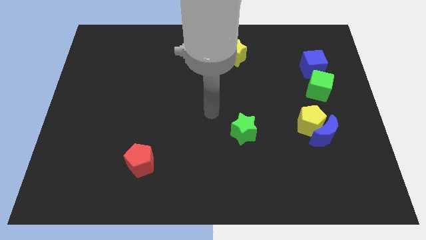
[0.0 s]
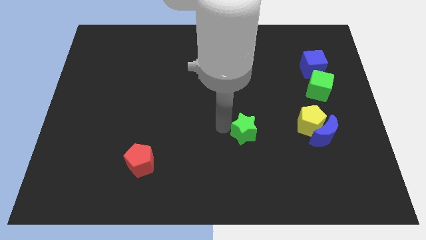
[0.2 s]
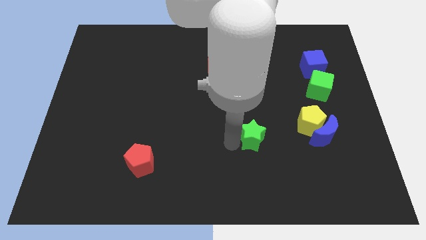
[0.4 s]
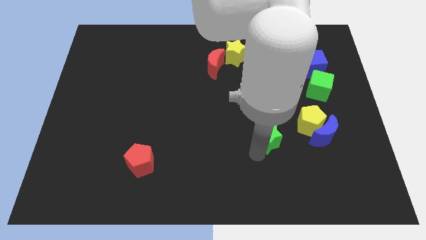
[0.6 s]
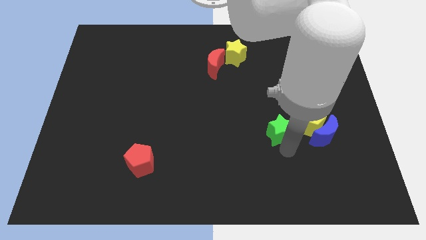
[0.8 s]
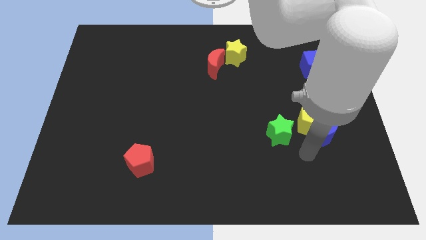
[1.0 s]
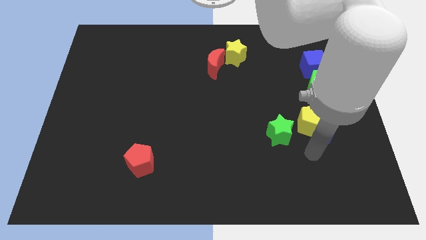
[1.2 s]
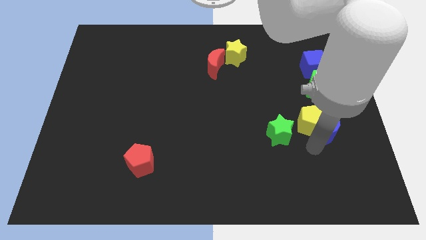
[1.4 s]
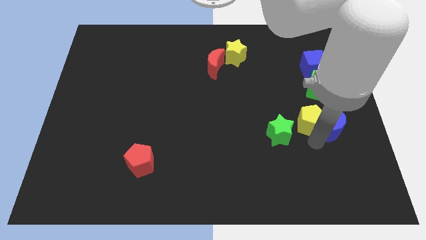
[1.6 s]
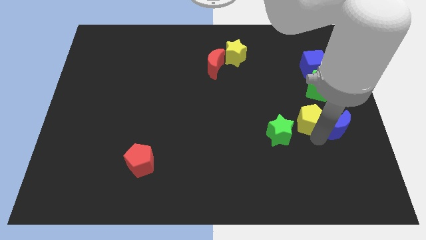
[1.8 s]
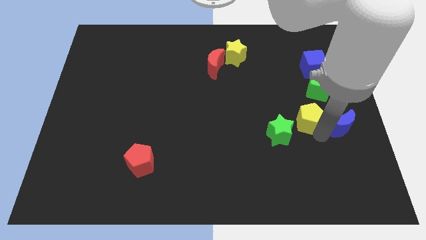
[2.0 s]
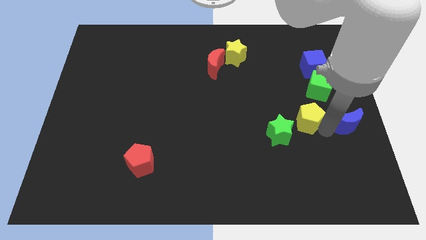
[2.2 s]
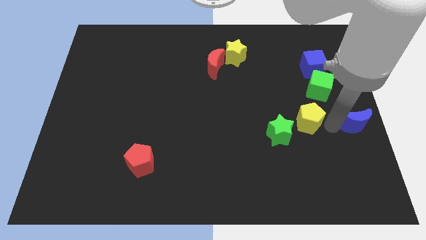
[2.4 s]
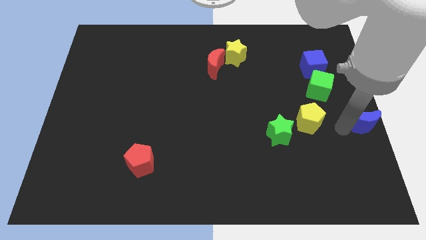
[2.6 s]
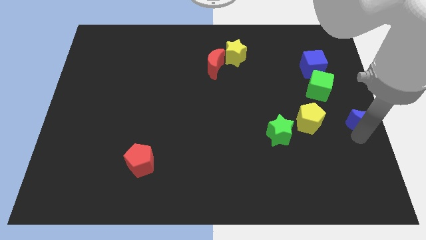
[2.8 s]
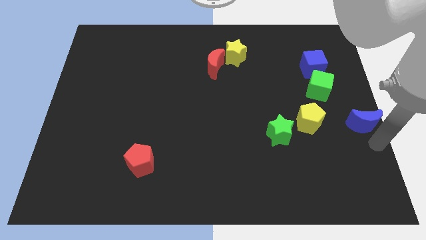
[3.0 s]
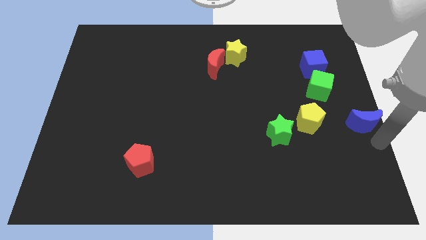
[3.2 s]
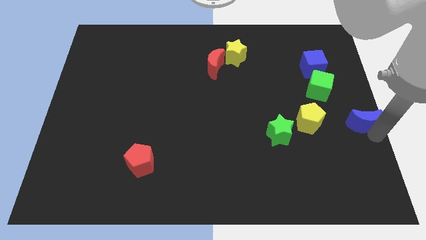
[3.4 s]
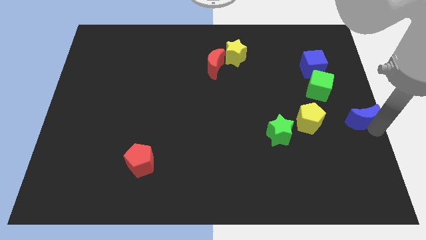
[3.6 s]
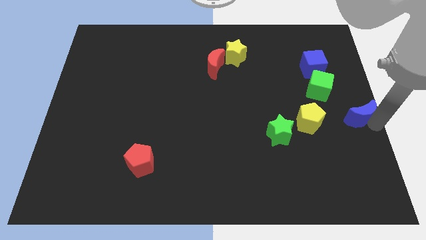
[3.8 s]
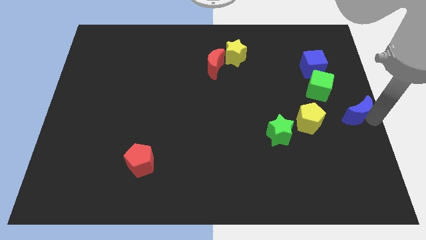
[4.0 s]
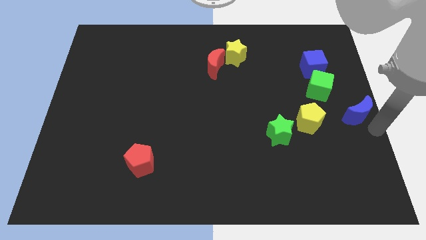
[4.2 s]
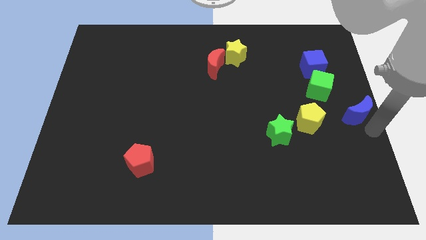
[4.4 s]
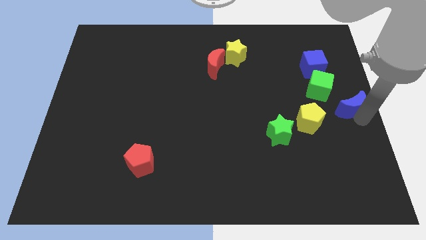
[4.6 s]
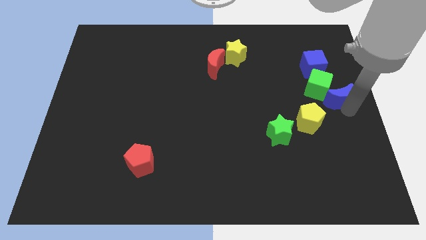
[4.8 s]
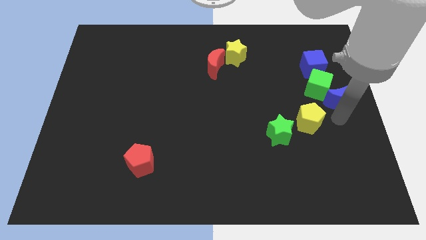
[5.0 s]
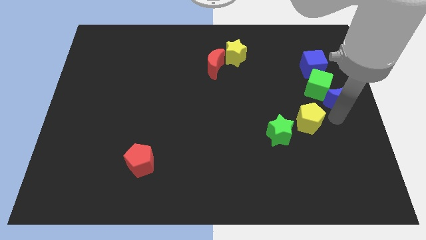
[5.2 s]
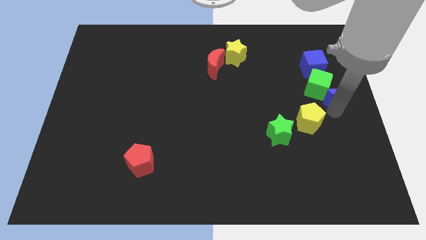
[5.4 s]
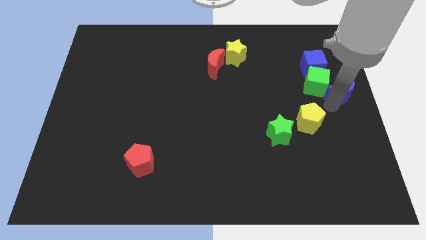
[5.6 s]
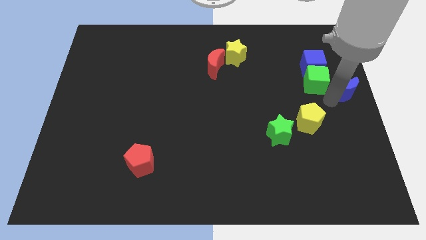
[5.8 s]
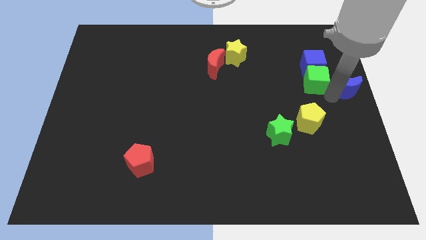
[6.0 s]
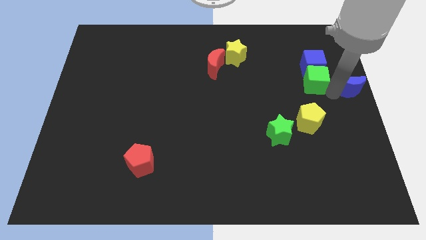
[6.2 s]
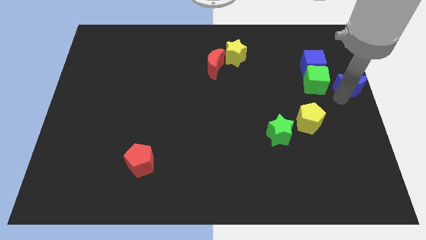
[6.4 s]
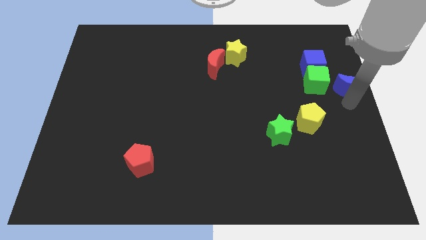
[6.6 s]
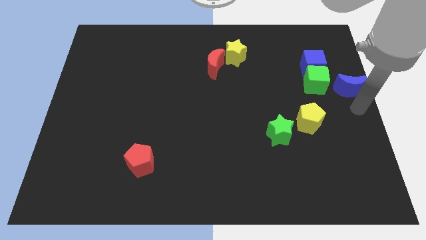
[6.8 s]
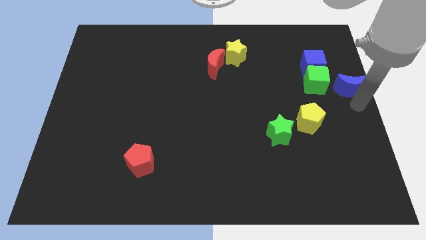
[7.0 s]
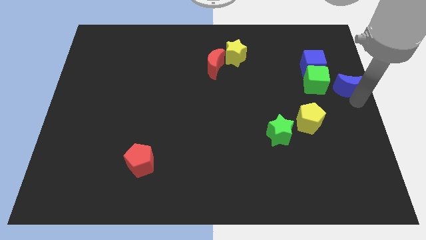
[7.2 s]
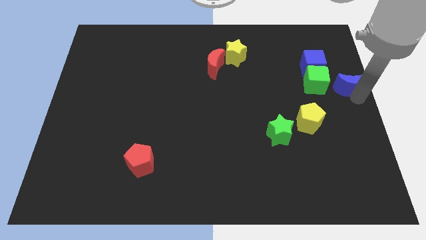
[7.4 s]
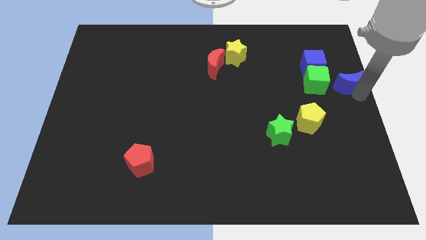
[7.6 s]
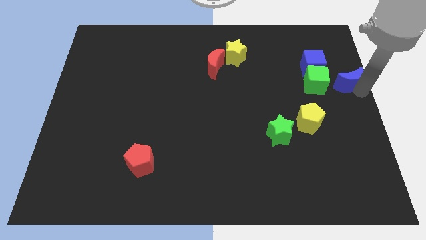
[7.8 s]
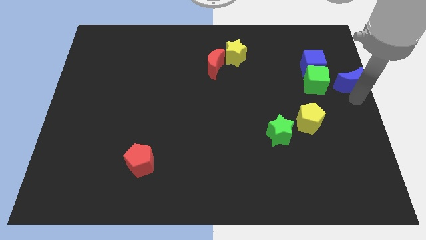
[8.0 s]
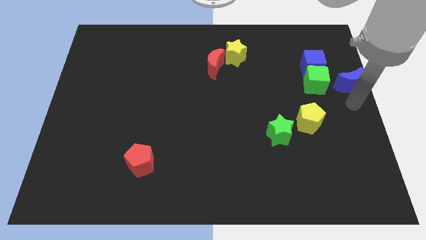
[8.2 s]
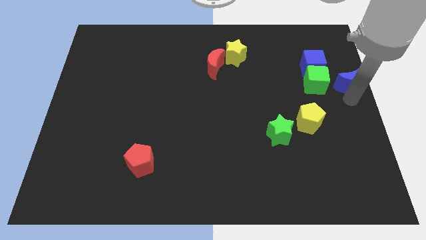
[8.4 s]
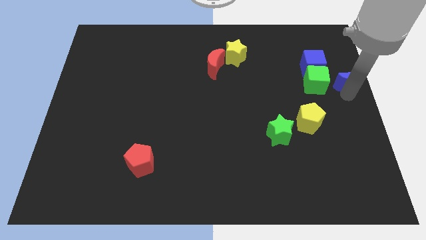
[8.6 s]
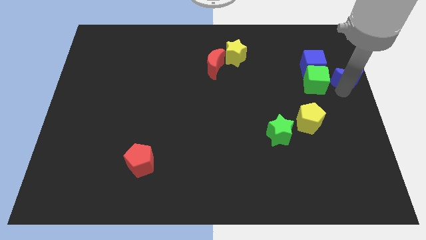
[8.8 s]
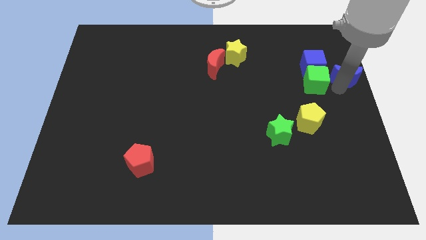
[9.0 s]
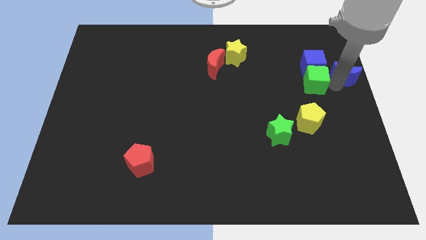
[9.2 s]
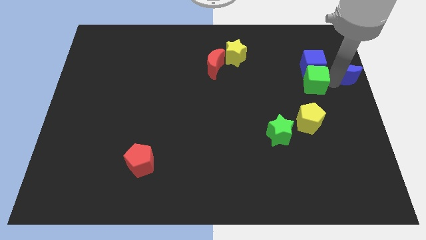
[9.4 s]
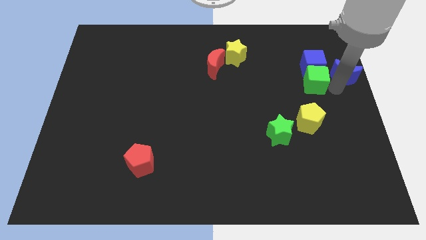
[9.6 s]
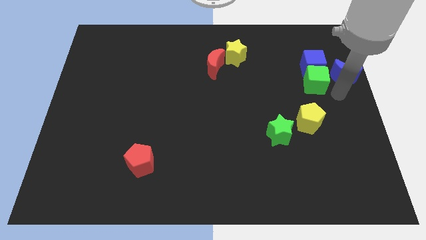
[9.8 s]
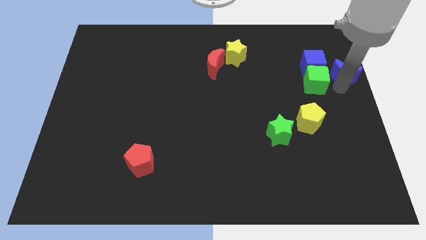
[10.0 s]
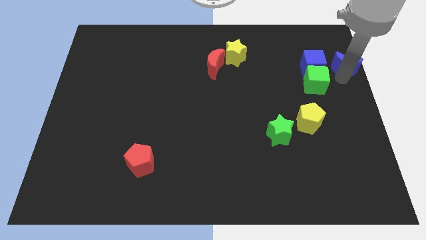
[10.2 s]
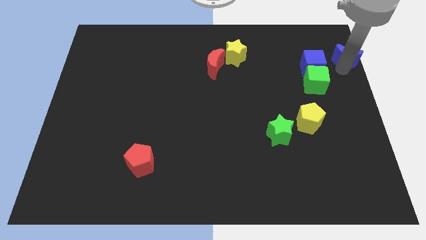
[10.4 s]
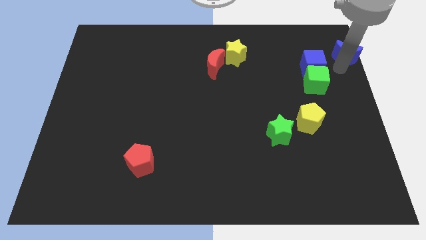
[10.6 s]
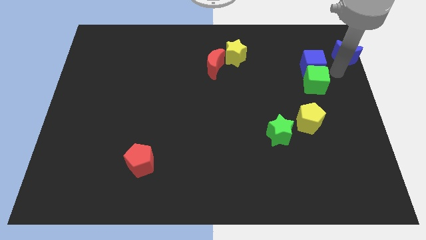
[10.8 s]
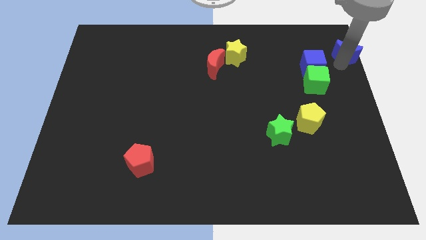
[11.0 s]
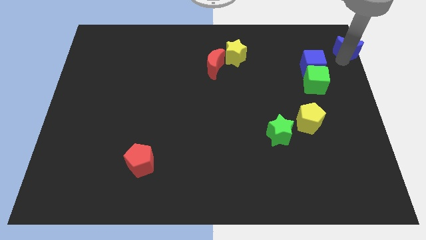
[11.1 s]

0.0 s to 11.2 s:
move the blue moon to the top right of the board

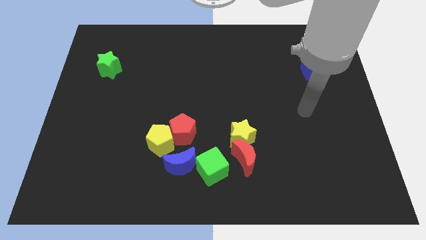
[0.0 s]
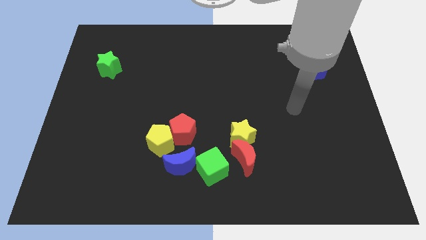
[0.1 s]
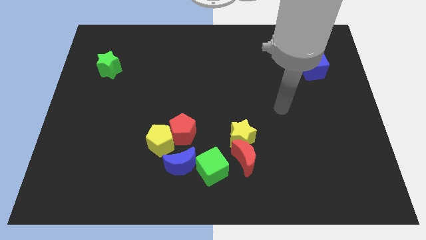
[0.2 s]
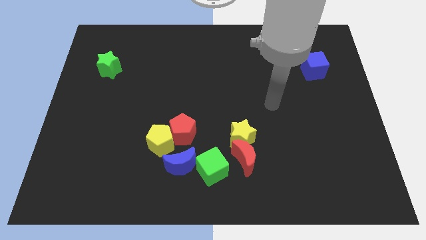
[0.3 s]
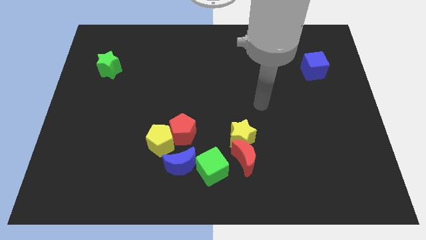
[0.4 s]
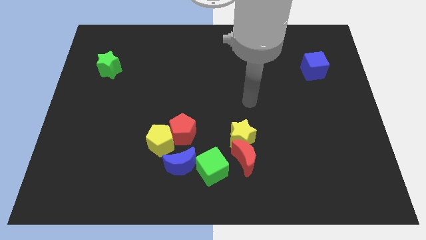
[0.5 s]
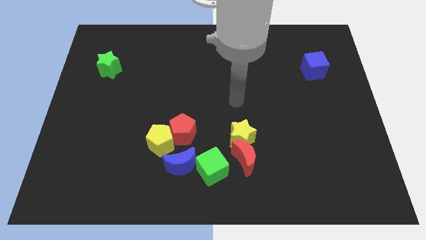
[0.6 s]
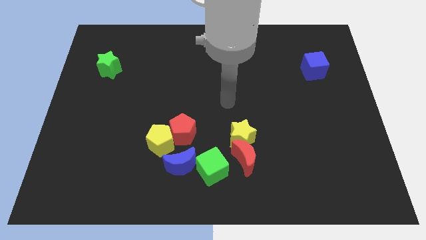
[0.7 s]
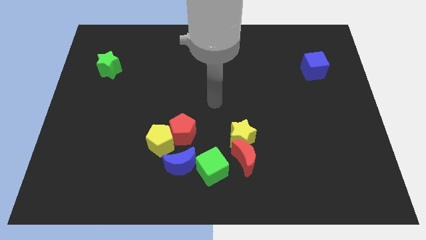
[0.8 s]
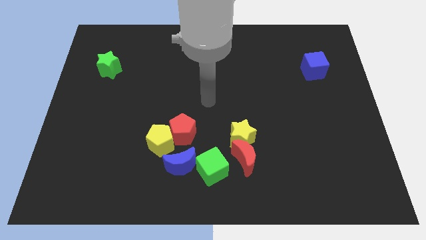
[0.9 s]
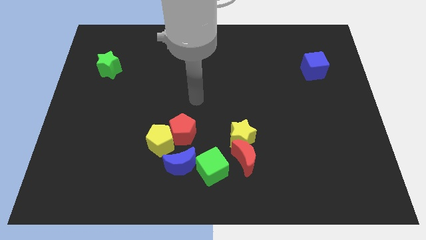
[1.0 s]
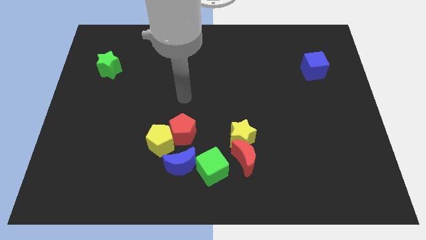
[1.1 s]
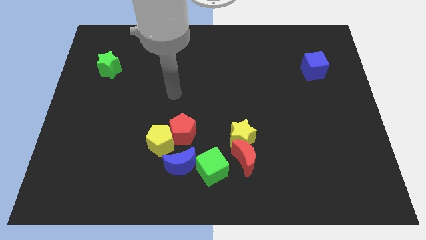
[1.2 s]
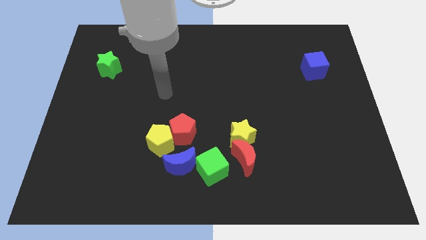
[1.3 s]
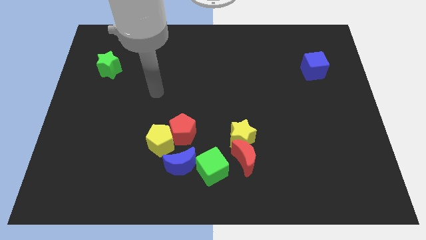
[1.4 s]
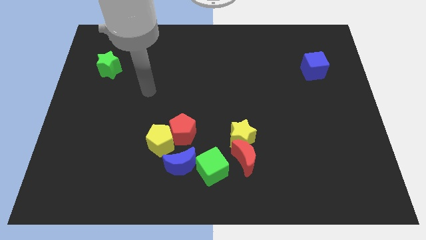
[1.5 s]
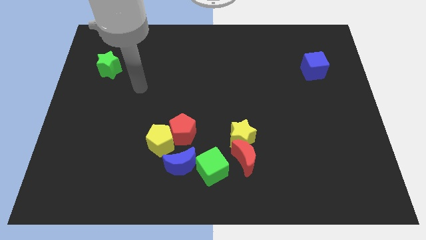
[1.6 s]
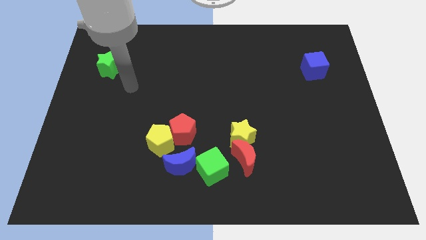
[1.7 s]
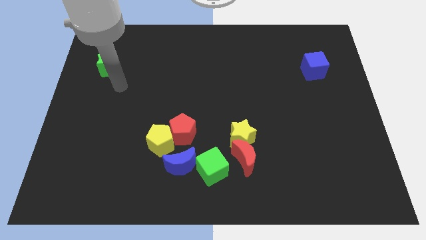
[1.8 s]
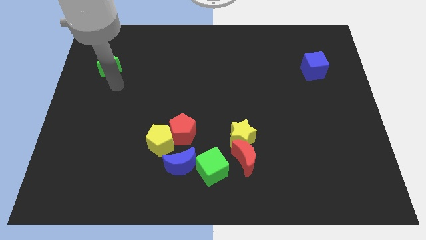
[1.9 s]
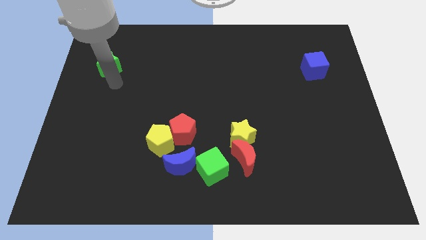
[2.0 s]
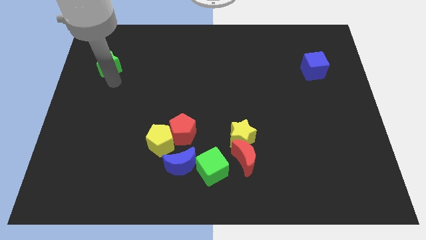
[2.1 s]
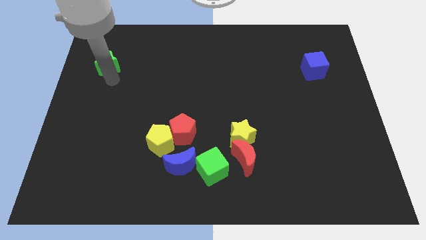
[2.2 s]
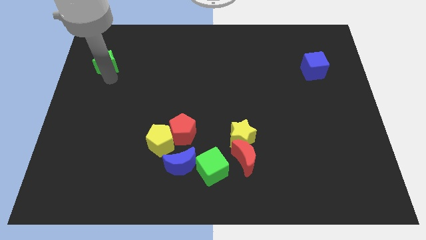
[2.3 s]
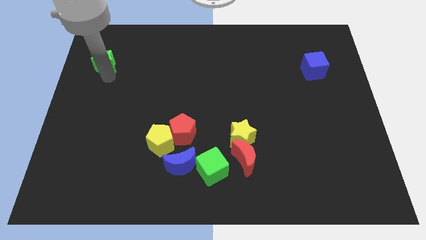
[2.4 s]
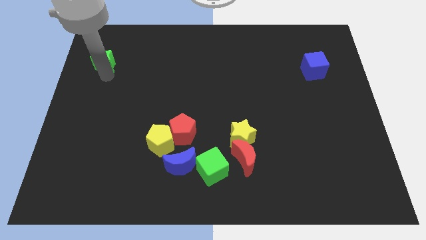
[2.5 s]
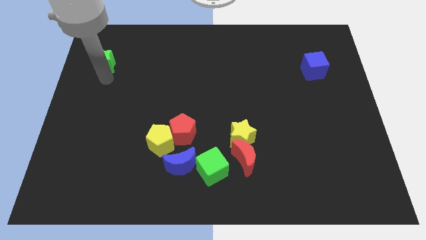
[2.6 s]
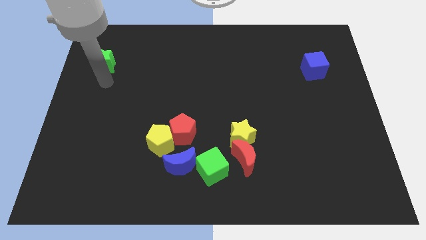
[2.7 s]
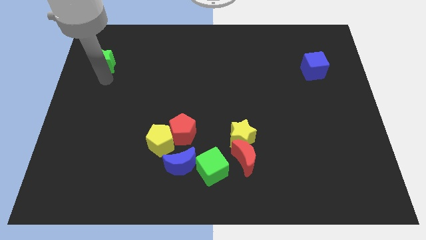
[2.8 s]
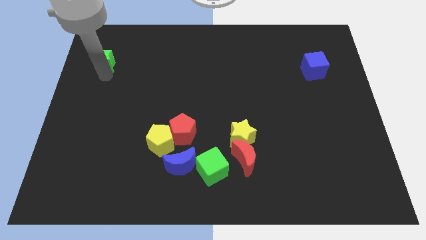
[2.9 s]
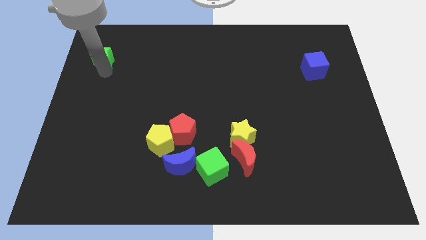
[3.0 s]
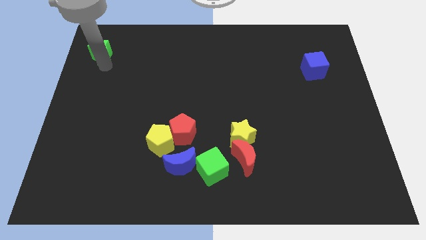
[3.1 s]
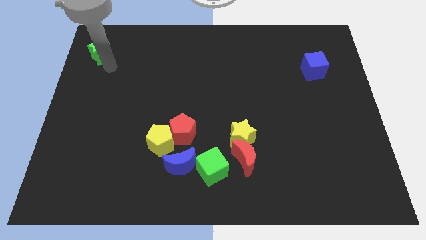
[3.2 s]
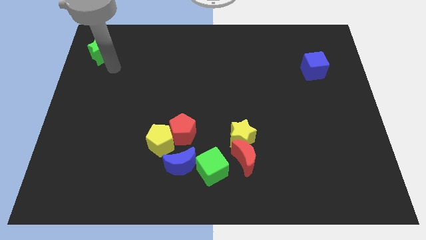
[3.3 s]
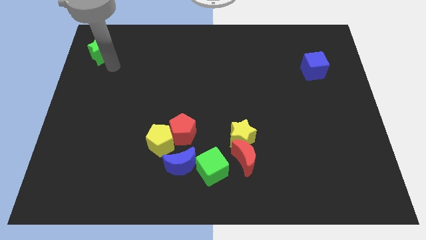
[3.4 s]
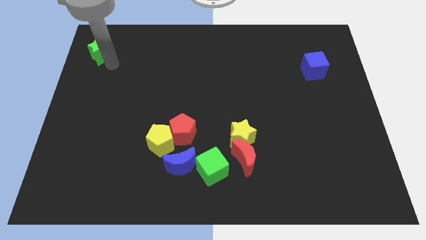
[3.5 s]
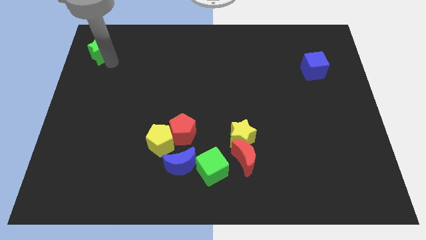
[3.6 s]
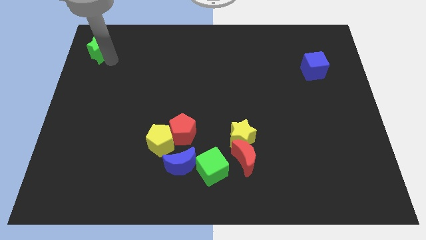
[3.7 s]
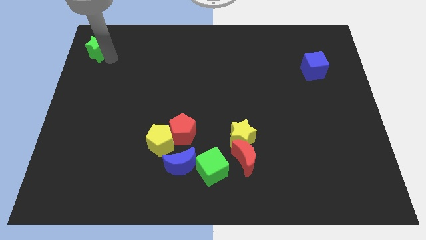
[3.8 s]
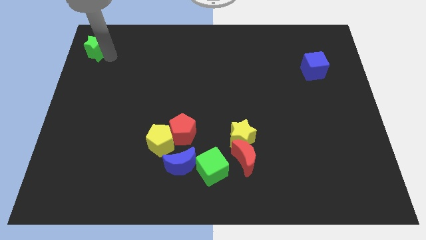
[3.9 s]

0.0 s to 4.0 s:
push the green star to the top left corner
